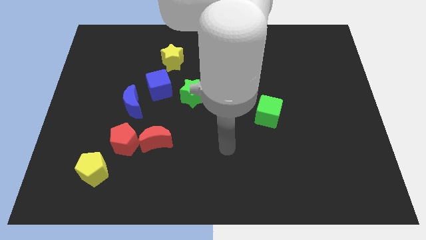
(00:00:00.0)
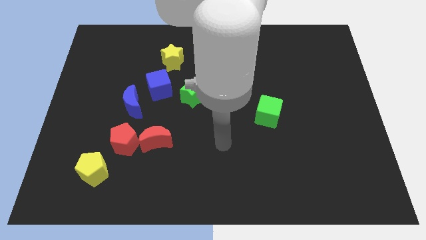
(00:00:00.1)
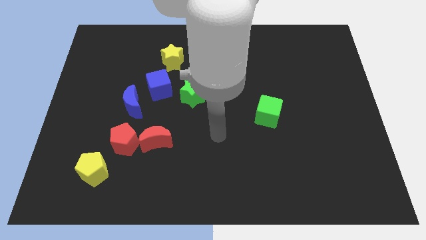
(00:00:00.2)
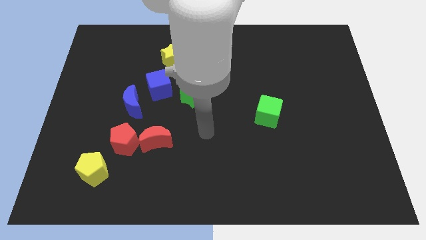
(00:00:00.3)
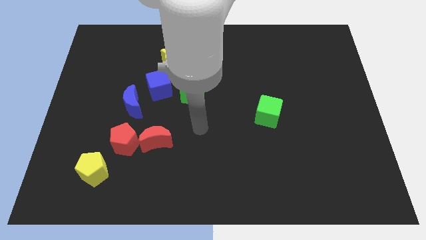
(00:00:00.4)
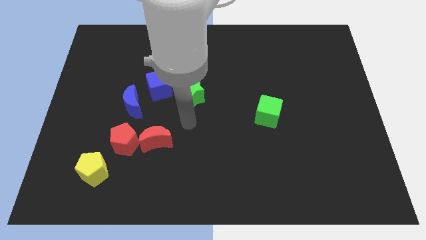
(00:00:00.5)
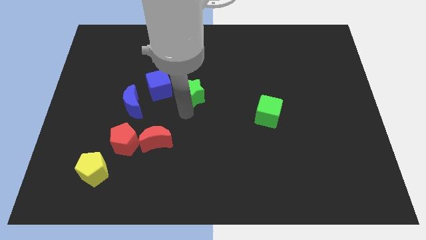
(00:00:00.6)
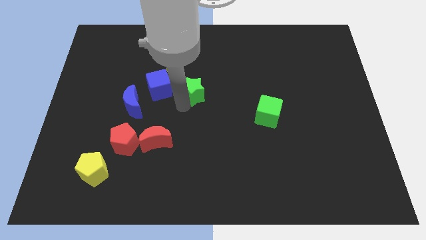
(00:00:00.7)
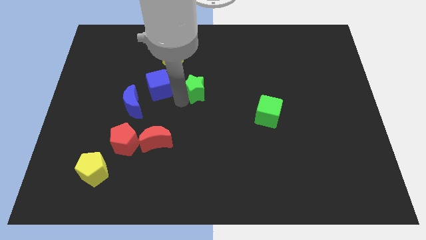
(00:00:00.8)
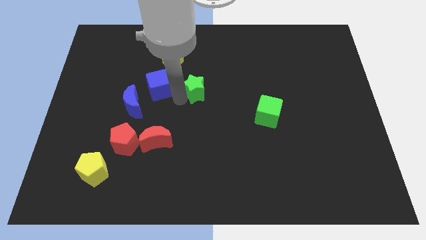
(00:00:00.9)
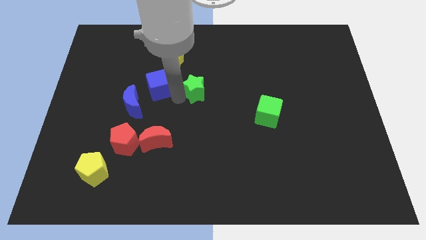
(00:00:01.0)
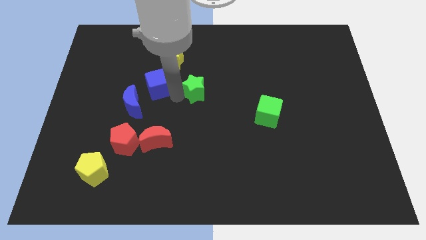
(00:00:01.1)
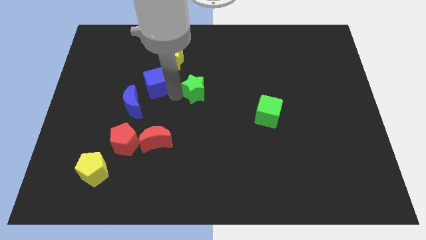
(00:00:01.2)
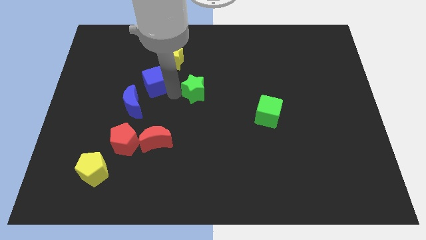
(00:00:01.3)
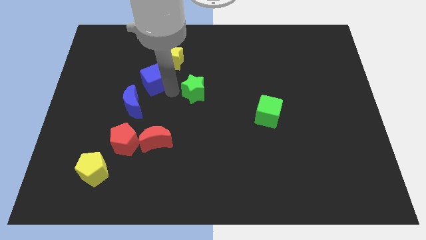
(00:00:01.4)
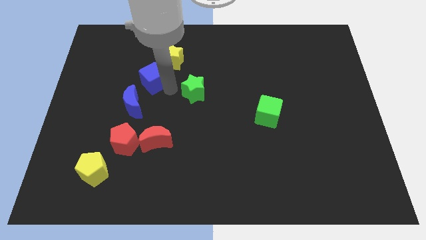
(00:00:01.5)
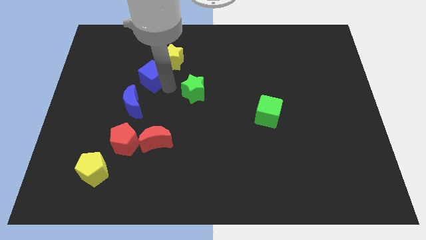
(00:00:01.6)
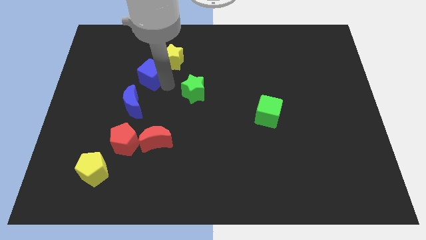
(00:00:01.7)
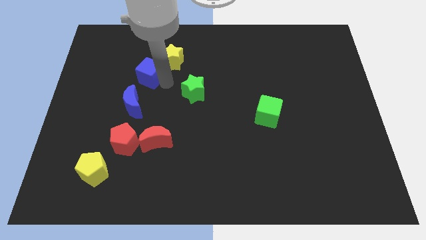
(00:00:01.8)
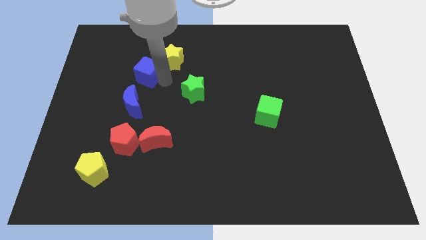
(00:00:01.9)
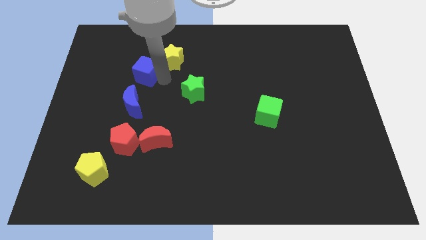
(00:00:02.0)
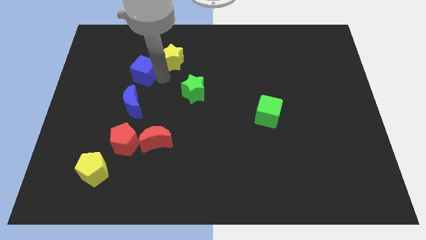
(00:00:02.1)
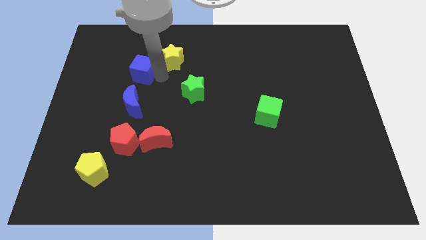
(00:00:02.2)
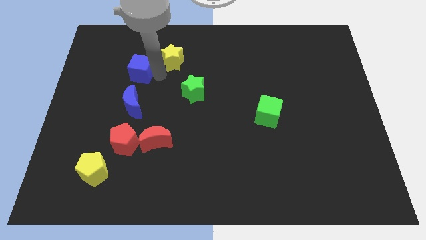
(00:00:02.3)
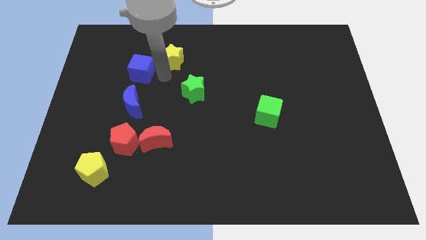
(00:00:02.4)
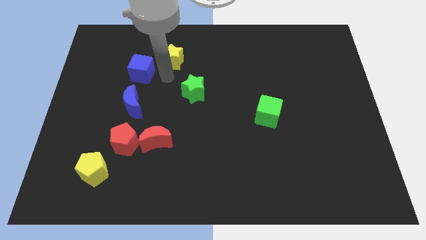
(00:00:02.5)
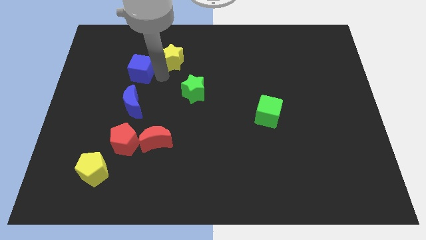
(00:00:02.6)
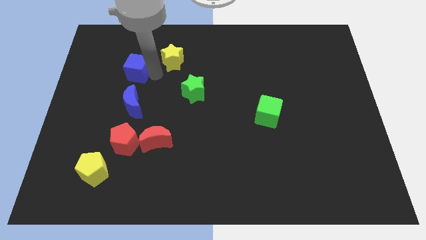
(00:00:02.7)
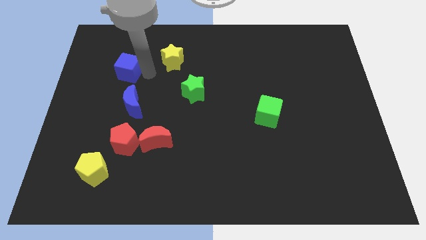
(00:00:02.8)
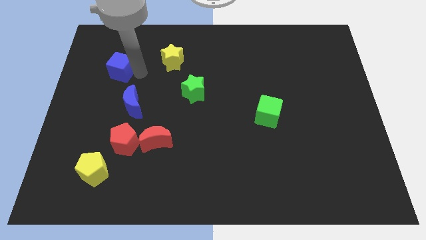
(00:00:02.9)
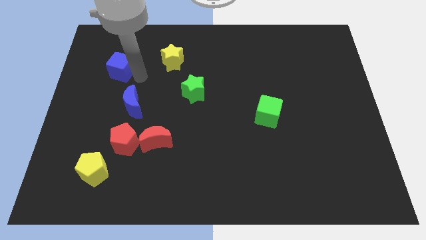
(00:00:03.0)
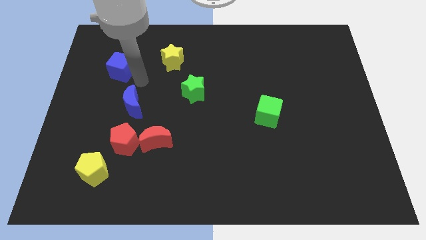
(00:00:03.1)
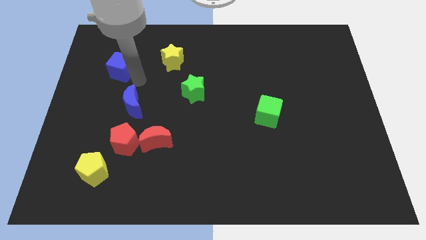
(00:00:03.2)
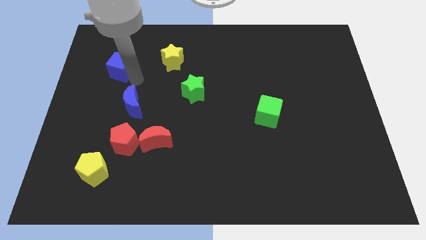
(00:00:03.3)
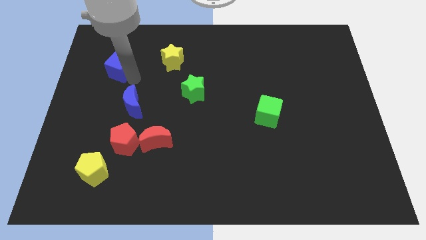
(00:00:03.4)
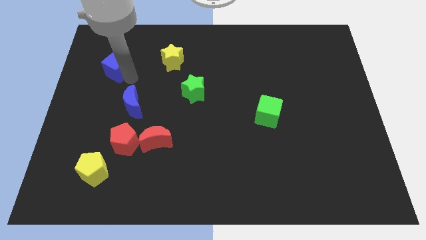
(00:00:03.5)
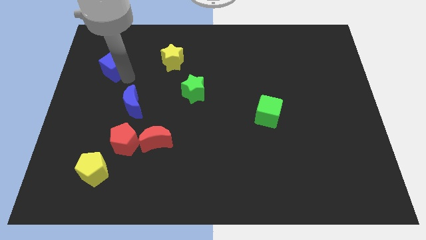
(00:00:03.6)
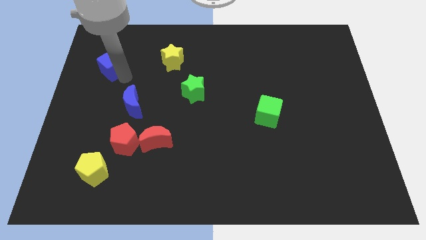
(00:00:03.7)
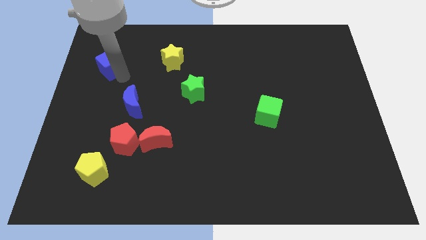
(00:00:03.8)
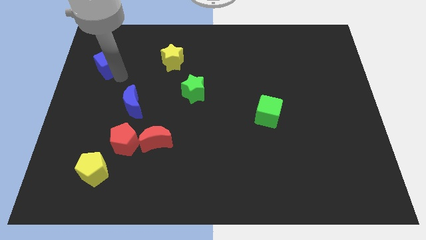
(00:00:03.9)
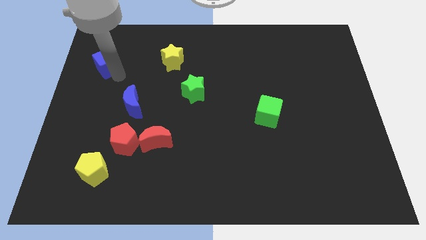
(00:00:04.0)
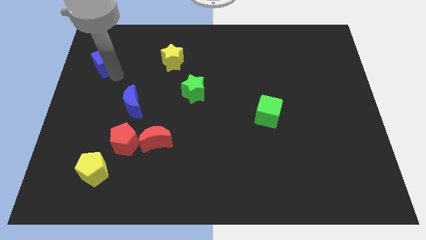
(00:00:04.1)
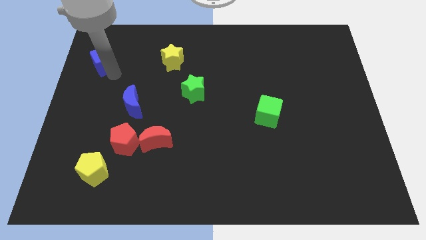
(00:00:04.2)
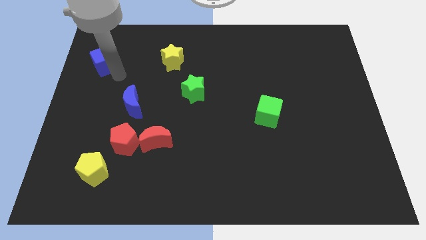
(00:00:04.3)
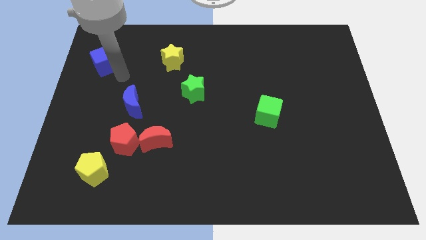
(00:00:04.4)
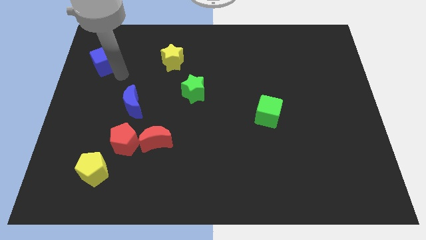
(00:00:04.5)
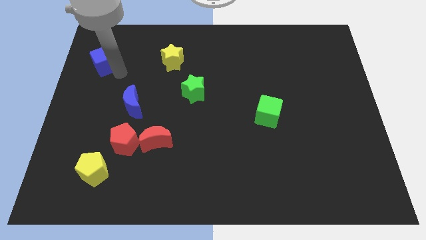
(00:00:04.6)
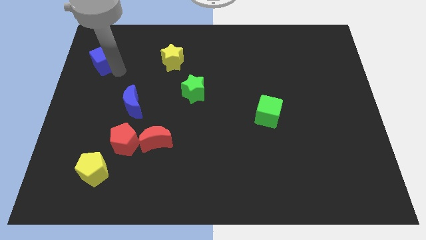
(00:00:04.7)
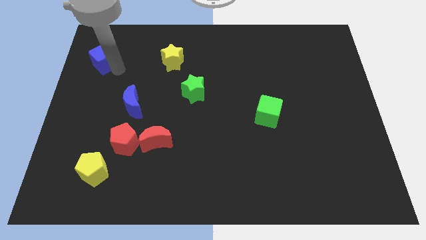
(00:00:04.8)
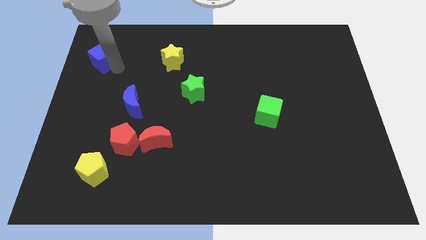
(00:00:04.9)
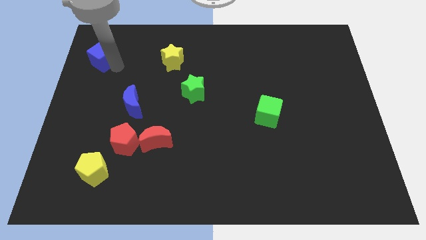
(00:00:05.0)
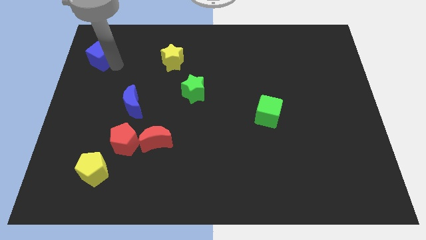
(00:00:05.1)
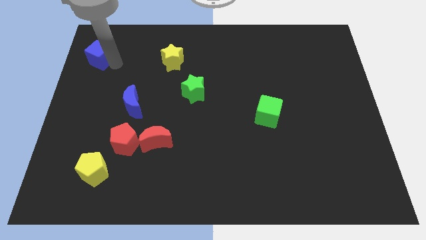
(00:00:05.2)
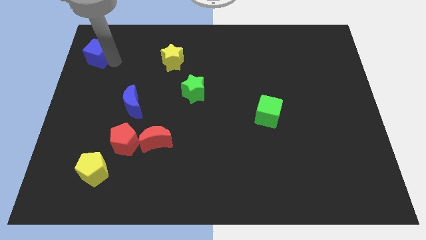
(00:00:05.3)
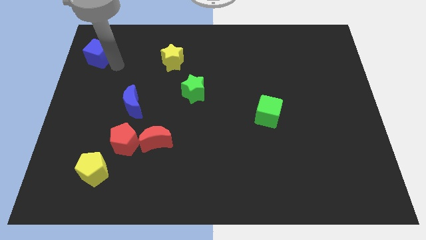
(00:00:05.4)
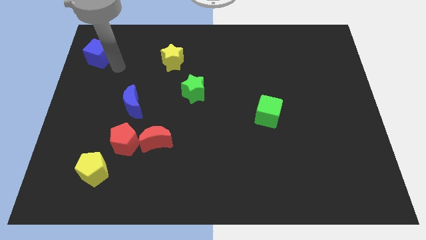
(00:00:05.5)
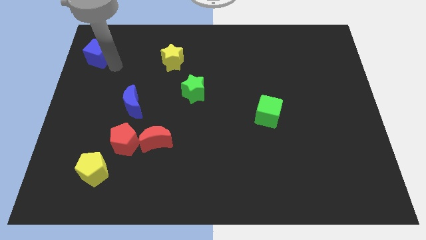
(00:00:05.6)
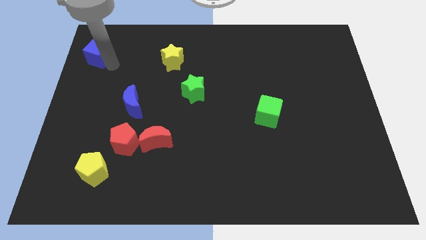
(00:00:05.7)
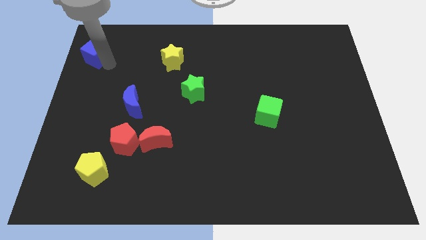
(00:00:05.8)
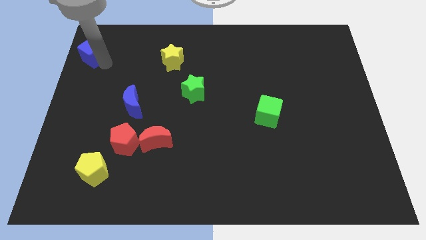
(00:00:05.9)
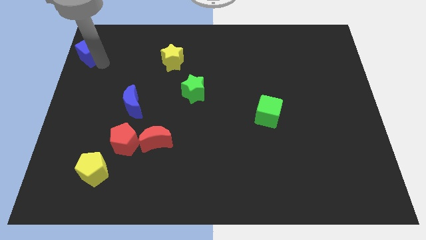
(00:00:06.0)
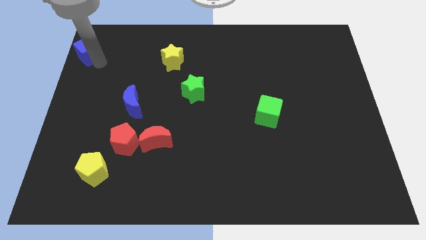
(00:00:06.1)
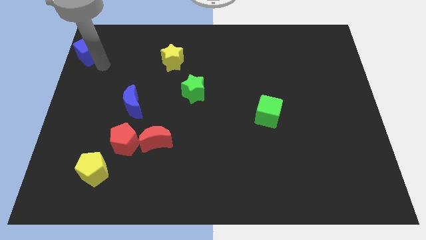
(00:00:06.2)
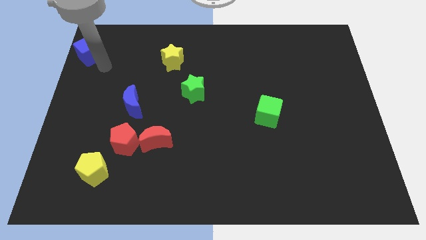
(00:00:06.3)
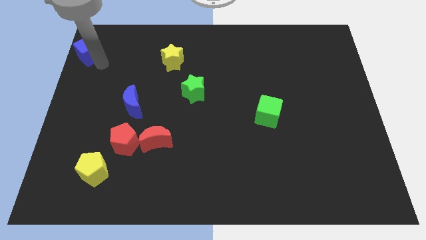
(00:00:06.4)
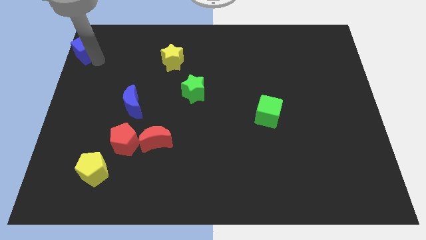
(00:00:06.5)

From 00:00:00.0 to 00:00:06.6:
move the blue cube to the top left
